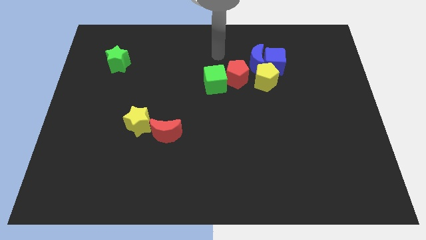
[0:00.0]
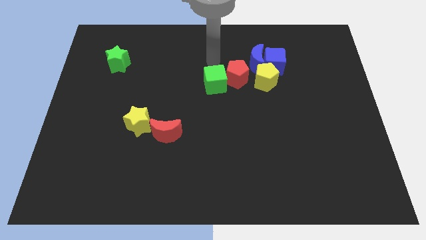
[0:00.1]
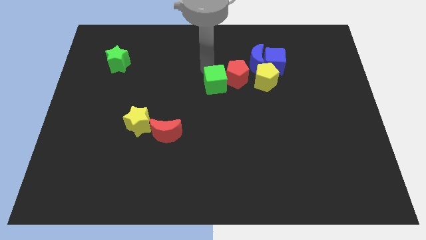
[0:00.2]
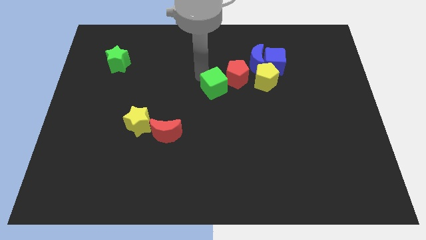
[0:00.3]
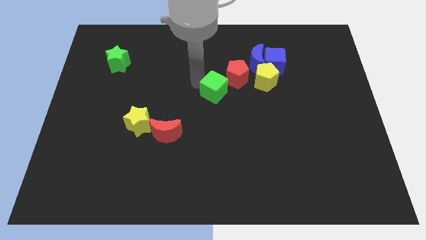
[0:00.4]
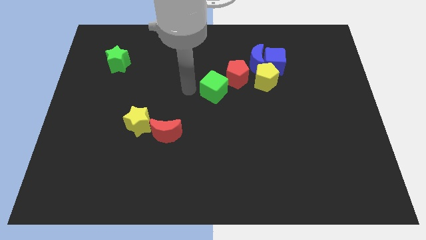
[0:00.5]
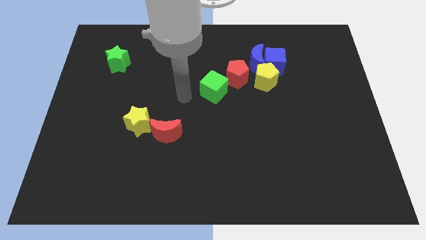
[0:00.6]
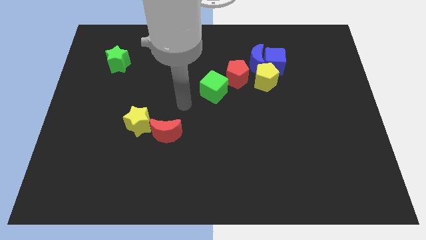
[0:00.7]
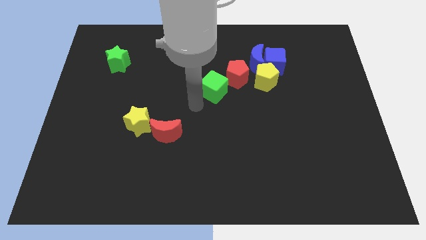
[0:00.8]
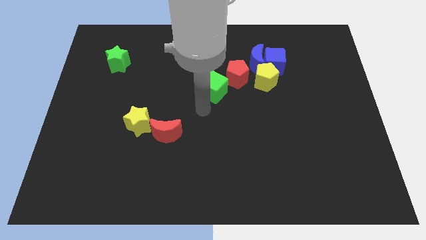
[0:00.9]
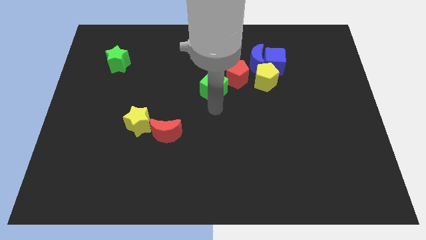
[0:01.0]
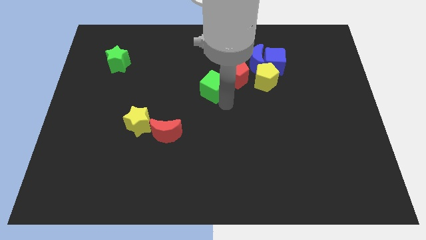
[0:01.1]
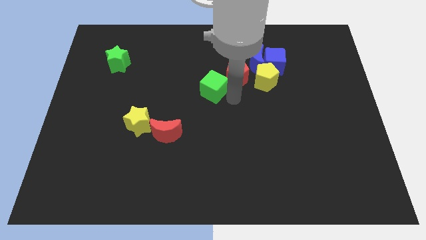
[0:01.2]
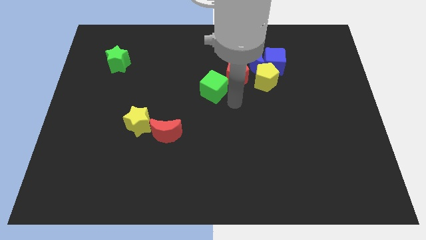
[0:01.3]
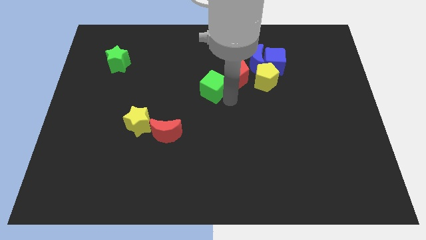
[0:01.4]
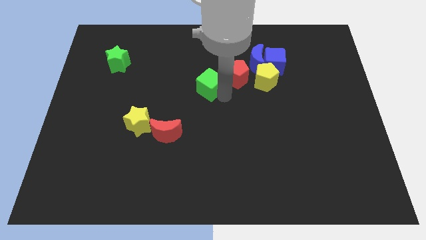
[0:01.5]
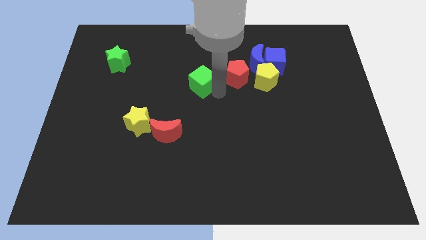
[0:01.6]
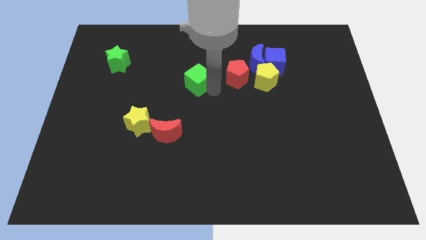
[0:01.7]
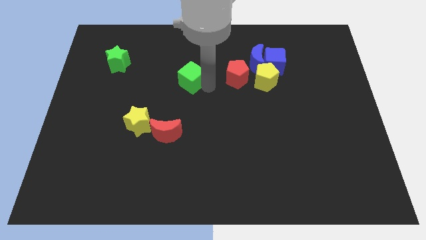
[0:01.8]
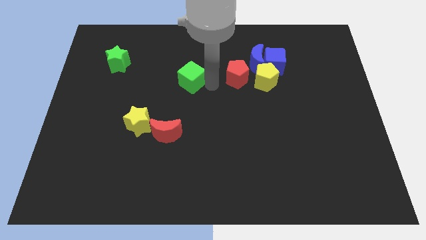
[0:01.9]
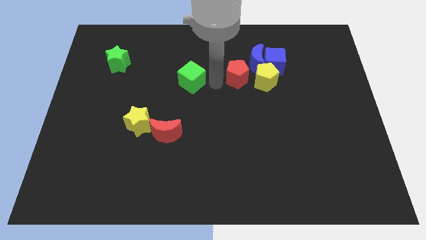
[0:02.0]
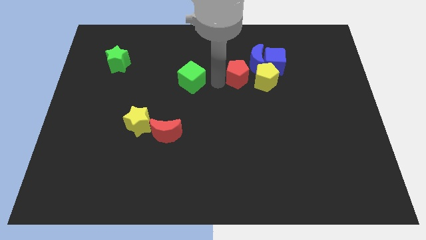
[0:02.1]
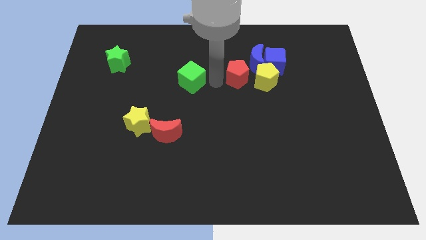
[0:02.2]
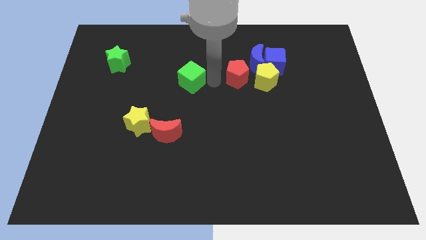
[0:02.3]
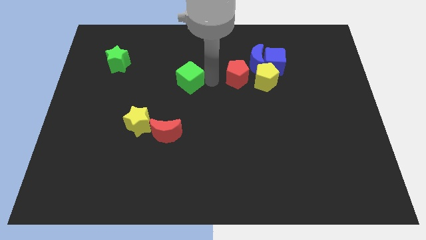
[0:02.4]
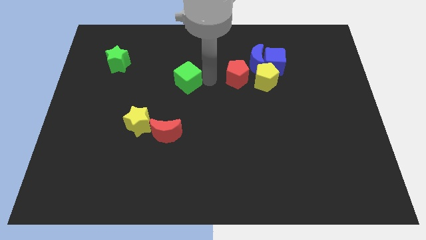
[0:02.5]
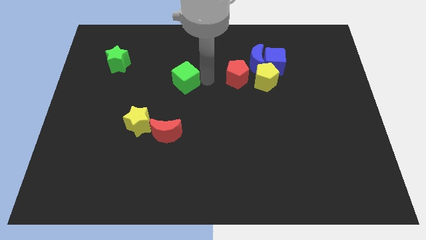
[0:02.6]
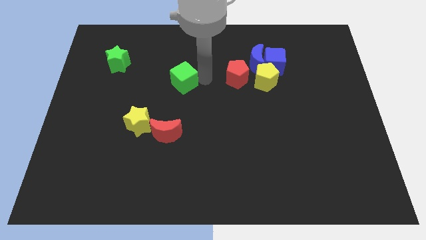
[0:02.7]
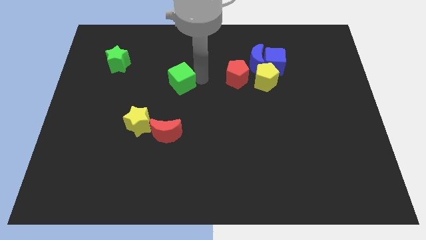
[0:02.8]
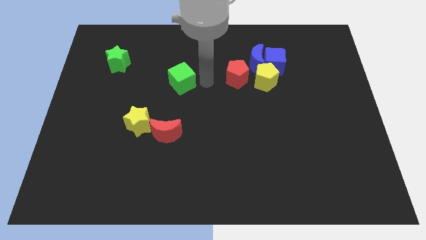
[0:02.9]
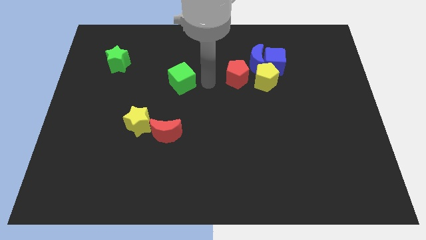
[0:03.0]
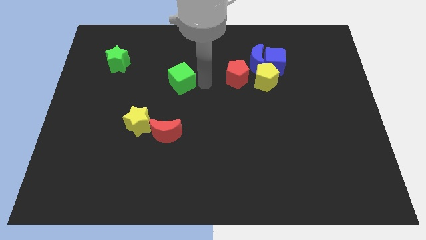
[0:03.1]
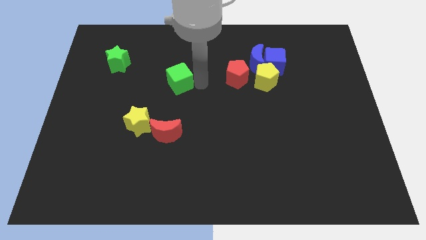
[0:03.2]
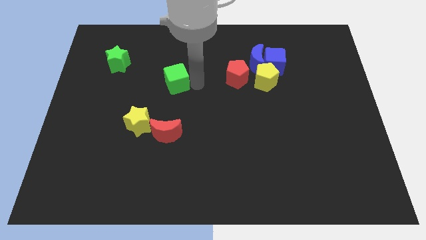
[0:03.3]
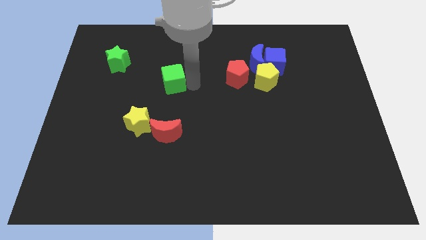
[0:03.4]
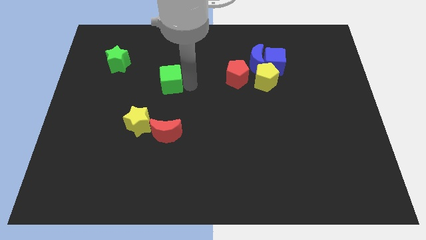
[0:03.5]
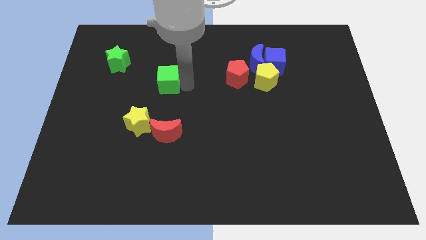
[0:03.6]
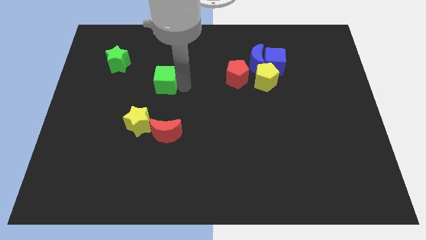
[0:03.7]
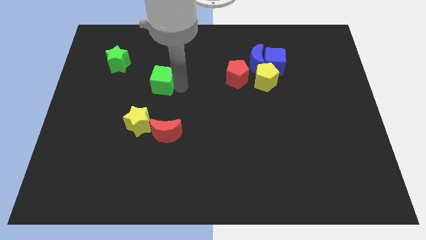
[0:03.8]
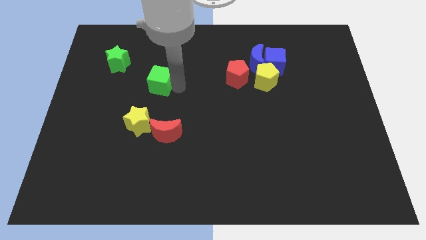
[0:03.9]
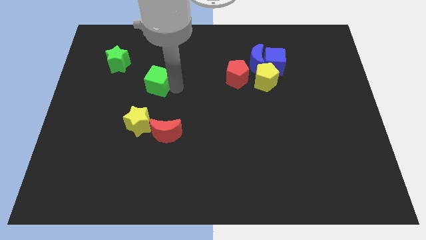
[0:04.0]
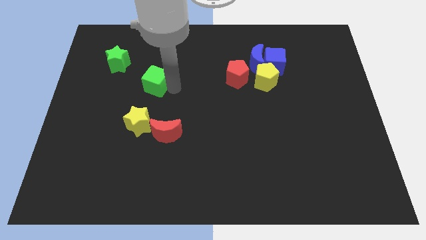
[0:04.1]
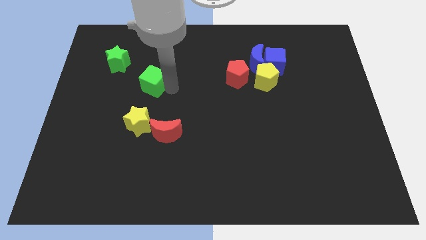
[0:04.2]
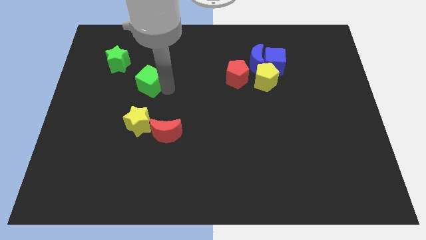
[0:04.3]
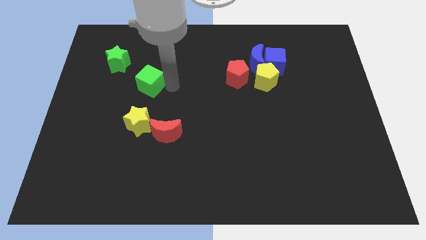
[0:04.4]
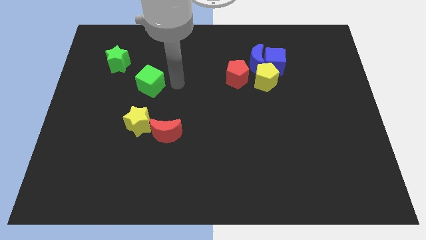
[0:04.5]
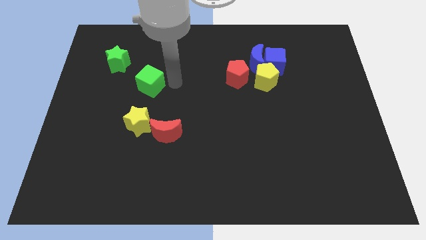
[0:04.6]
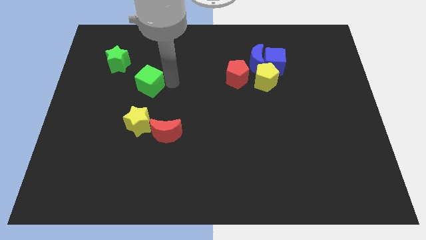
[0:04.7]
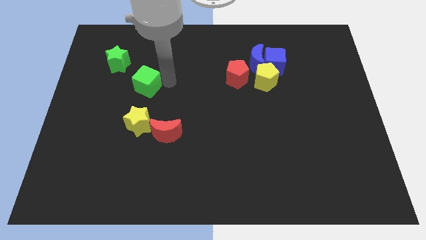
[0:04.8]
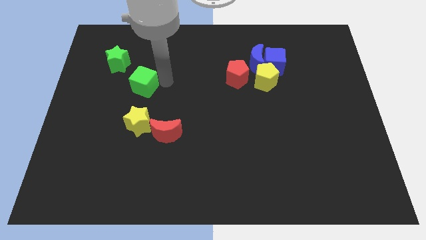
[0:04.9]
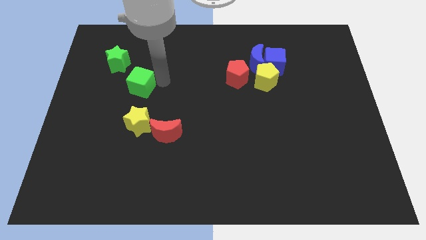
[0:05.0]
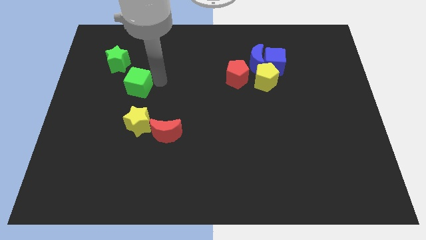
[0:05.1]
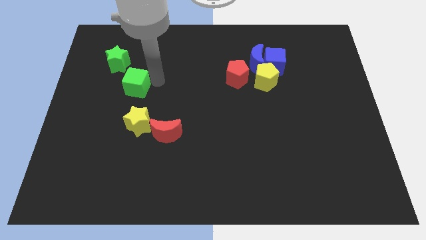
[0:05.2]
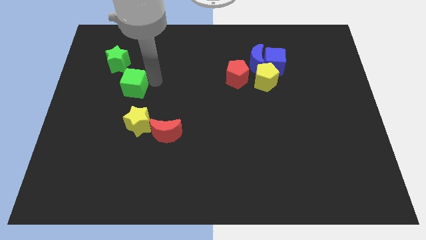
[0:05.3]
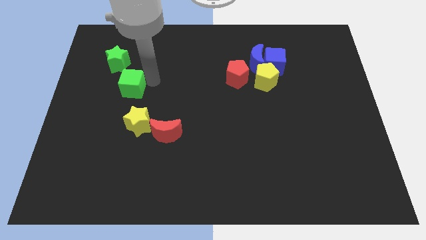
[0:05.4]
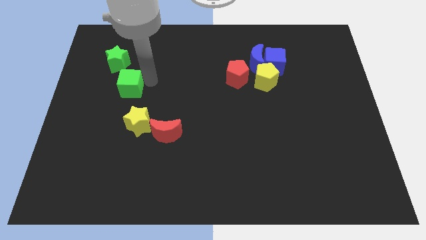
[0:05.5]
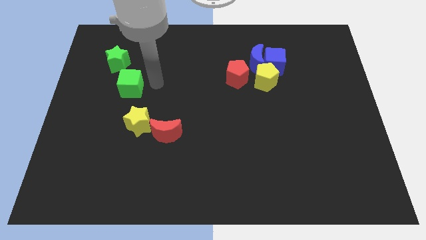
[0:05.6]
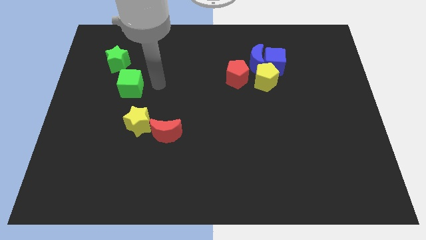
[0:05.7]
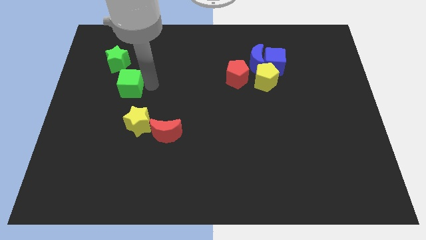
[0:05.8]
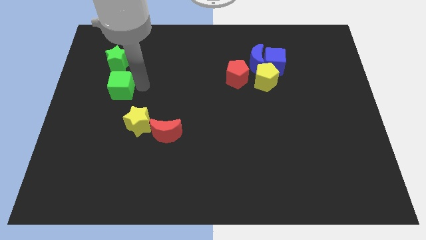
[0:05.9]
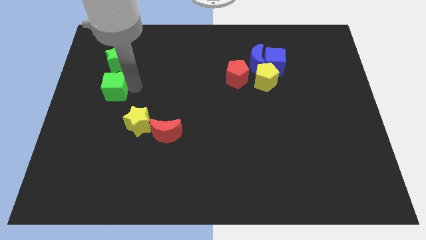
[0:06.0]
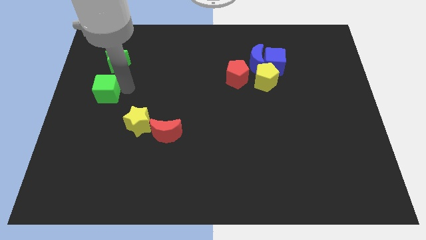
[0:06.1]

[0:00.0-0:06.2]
slide the green cube to the center left
